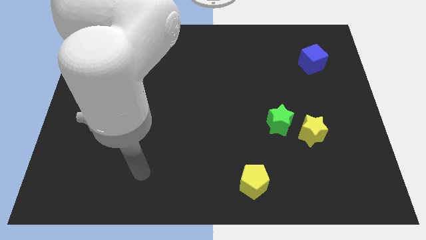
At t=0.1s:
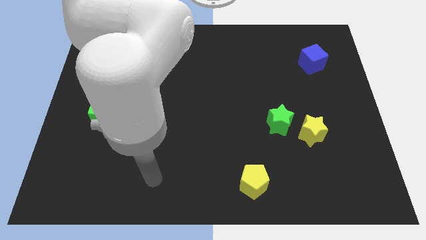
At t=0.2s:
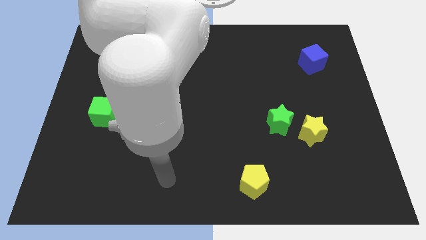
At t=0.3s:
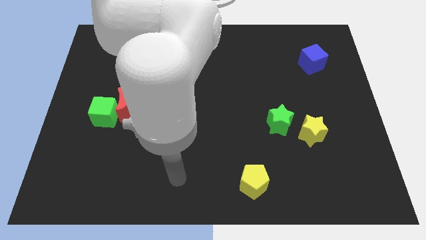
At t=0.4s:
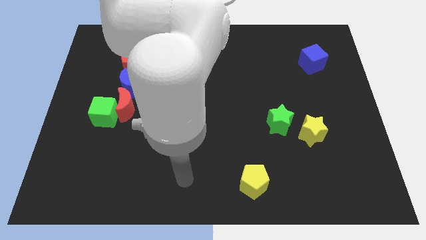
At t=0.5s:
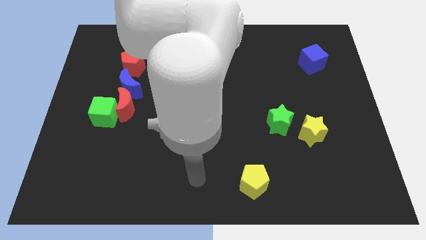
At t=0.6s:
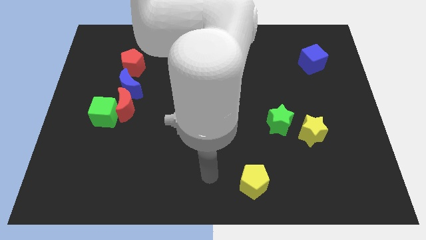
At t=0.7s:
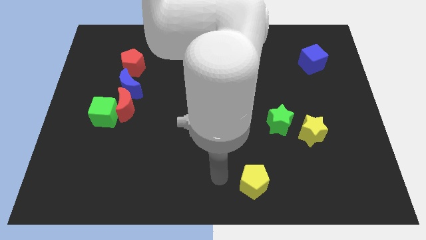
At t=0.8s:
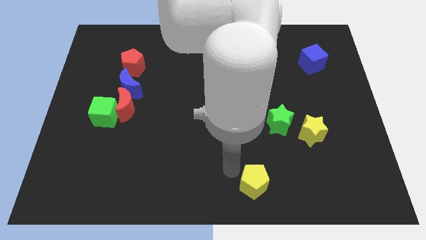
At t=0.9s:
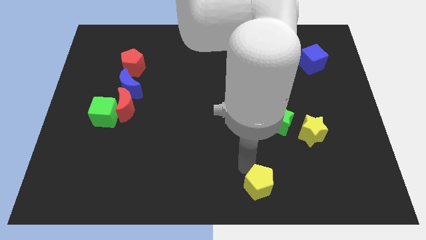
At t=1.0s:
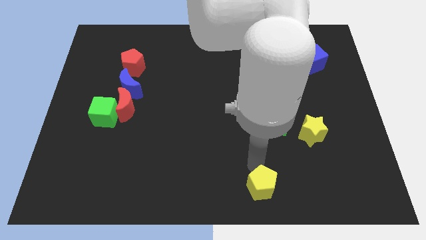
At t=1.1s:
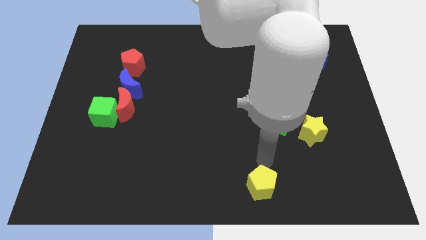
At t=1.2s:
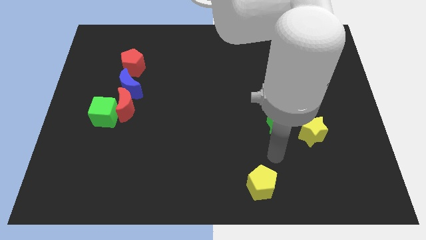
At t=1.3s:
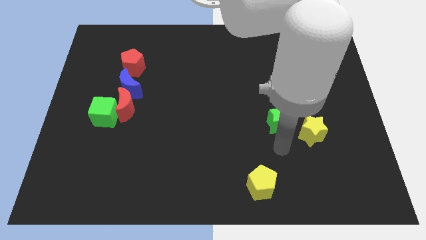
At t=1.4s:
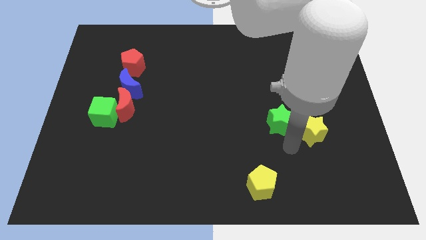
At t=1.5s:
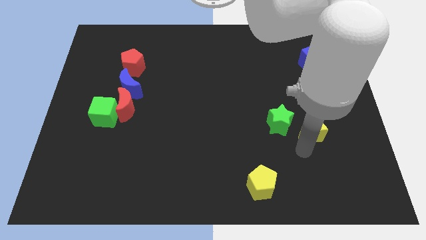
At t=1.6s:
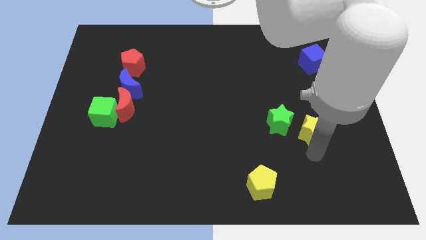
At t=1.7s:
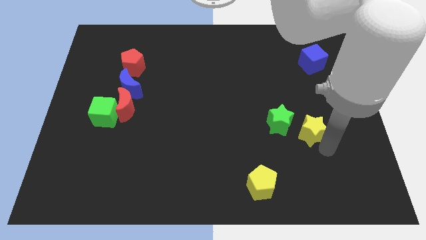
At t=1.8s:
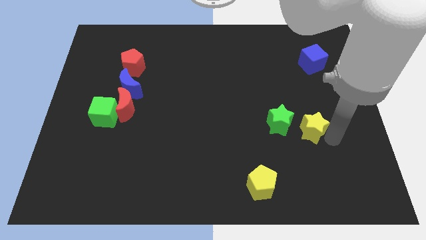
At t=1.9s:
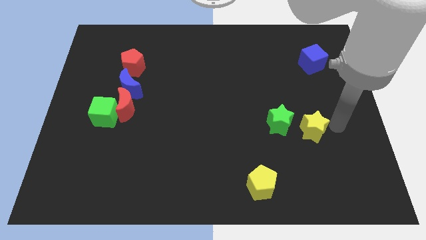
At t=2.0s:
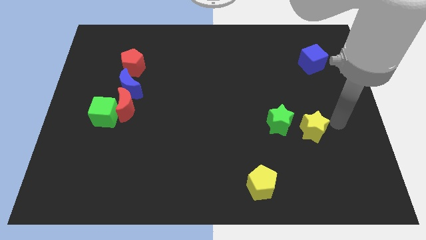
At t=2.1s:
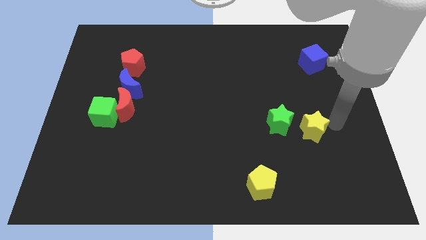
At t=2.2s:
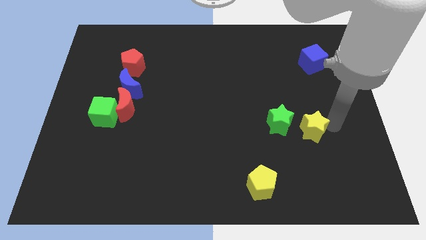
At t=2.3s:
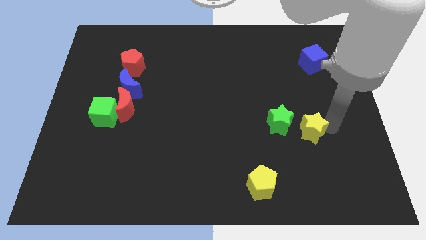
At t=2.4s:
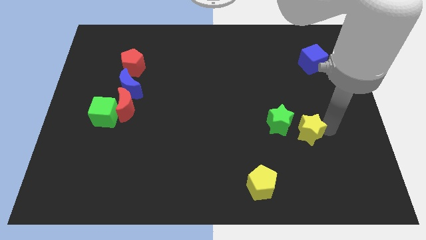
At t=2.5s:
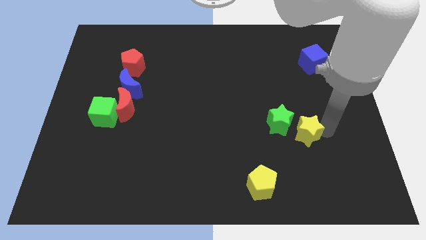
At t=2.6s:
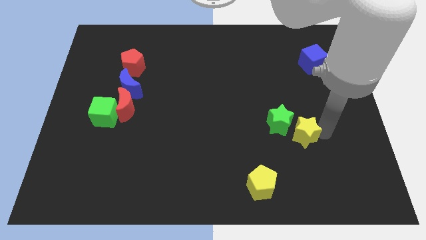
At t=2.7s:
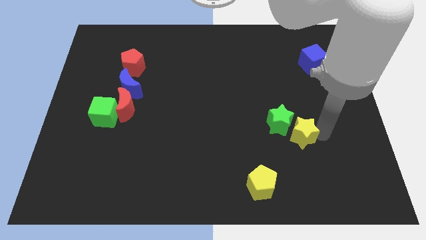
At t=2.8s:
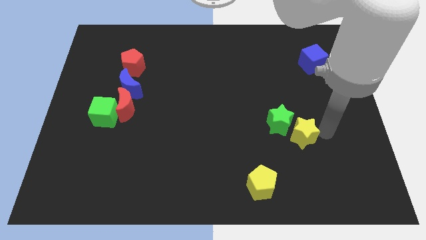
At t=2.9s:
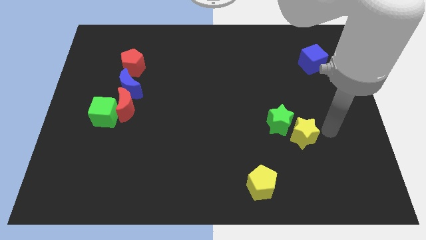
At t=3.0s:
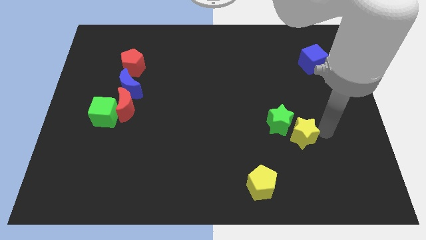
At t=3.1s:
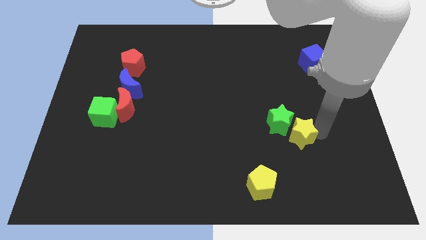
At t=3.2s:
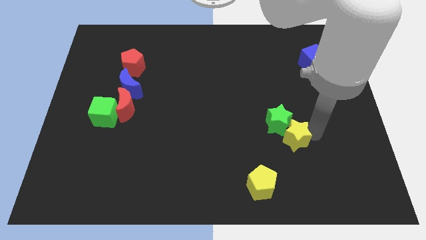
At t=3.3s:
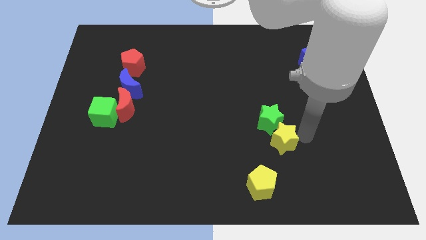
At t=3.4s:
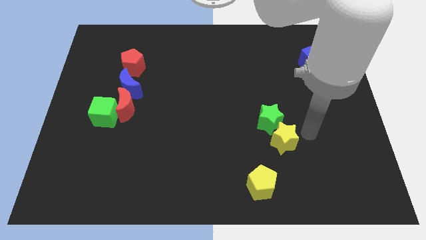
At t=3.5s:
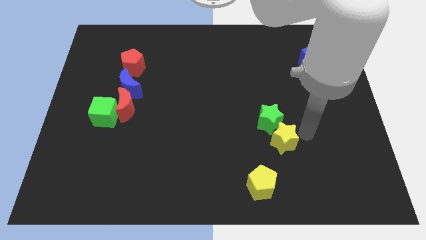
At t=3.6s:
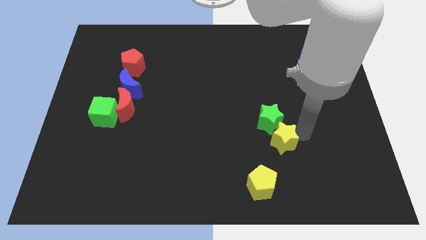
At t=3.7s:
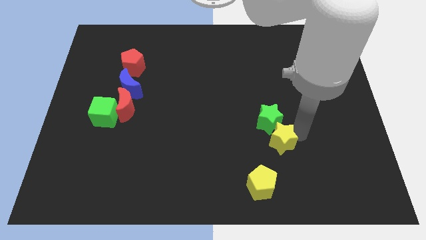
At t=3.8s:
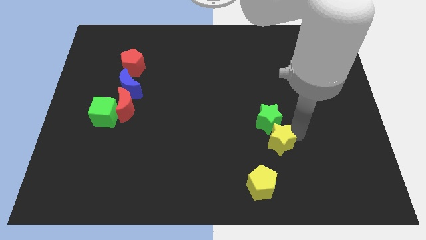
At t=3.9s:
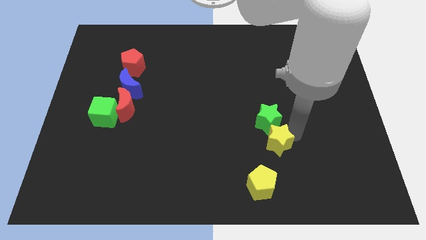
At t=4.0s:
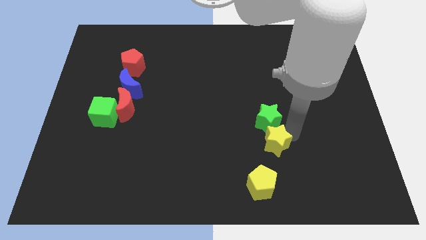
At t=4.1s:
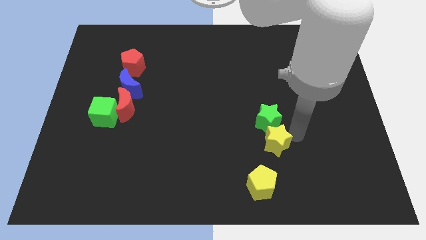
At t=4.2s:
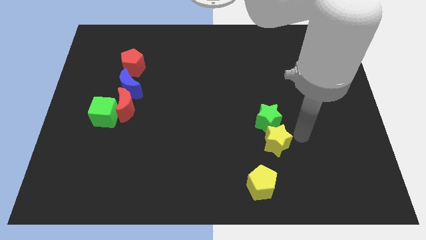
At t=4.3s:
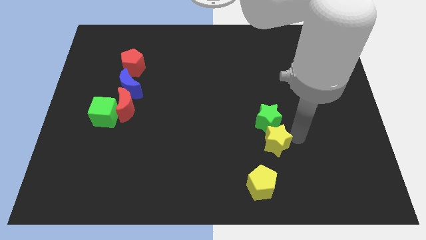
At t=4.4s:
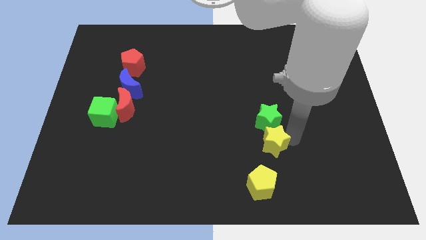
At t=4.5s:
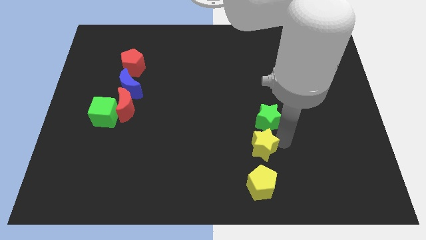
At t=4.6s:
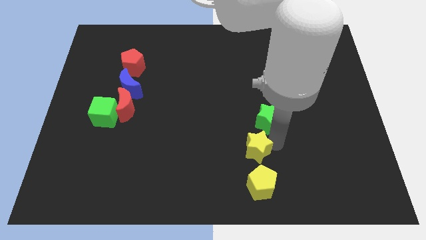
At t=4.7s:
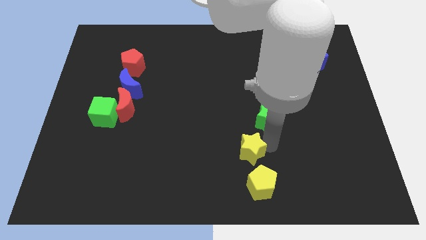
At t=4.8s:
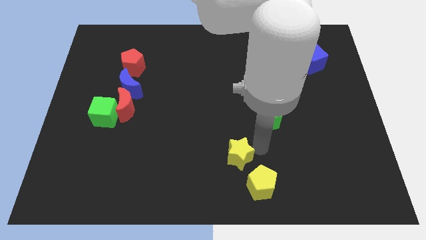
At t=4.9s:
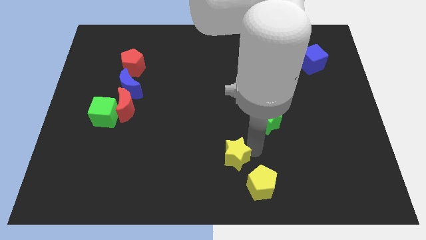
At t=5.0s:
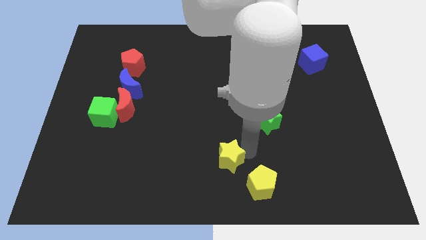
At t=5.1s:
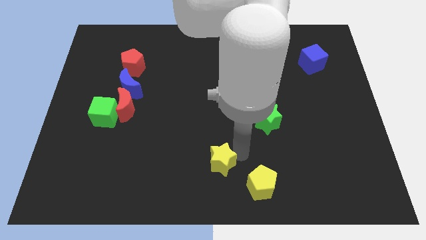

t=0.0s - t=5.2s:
move the yellow star to the left side of the yellow pentagon

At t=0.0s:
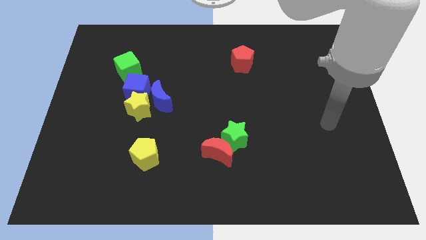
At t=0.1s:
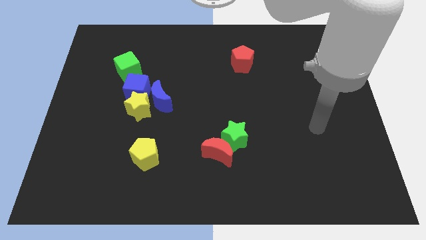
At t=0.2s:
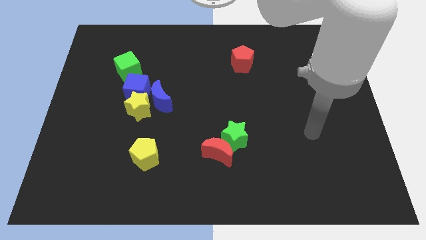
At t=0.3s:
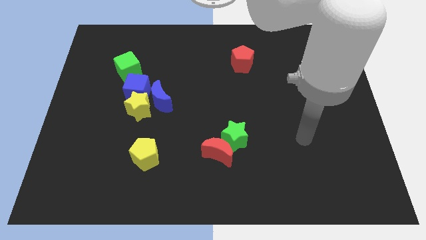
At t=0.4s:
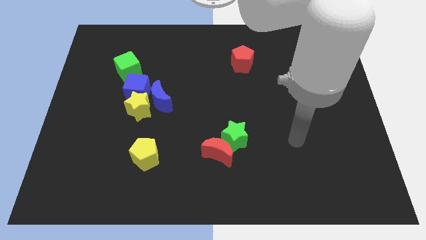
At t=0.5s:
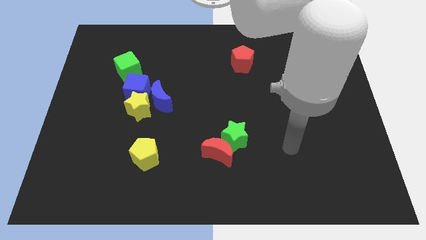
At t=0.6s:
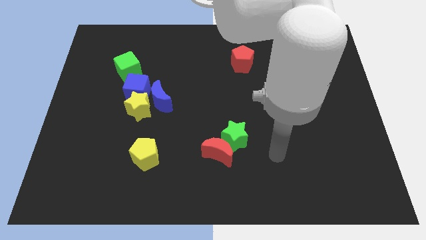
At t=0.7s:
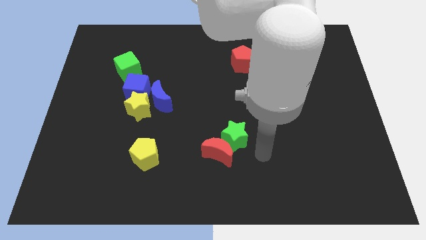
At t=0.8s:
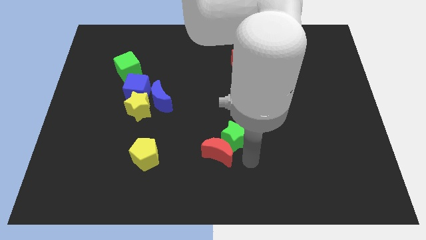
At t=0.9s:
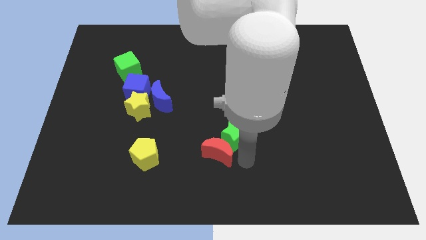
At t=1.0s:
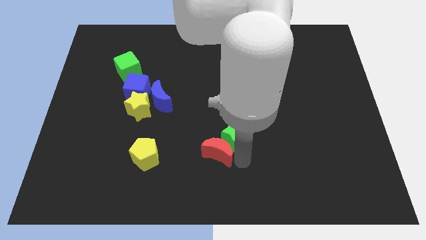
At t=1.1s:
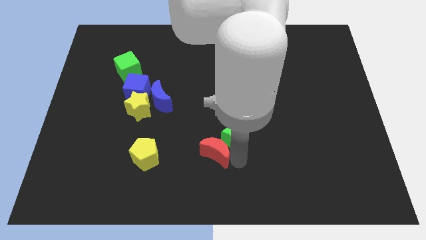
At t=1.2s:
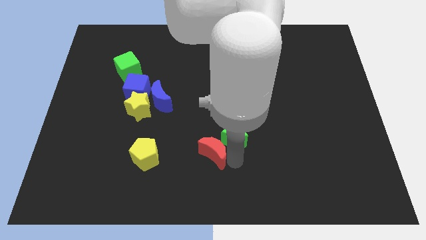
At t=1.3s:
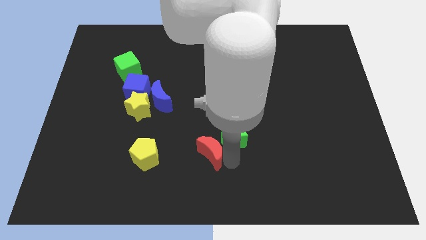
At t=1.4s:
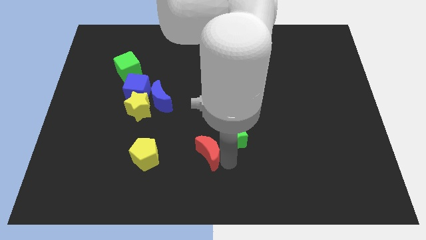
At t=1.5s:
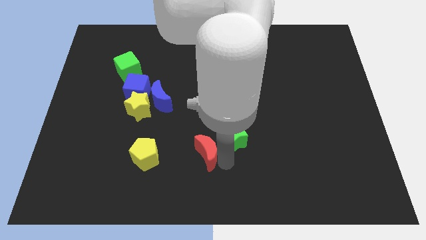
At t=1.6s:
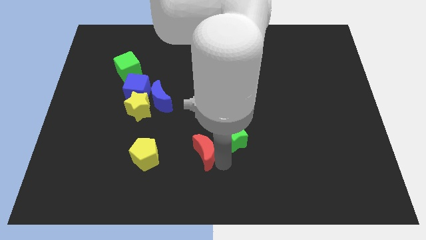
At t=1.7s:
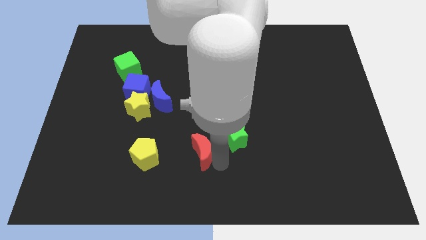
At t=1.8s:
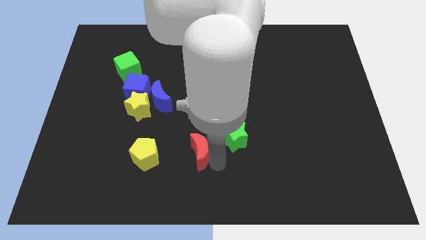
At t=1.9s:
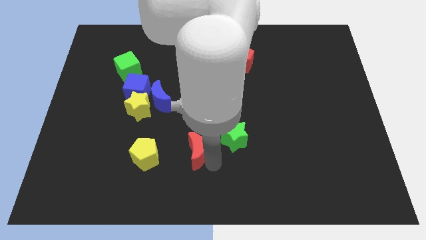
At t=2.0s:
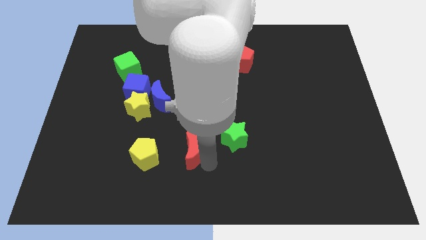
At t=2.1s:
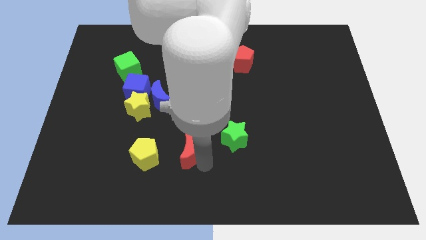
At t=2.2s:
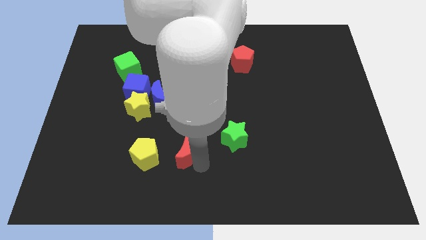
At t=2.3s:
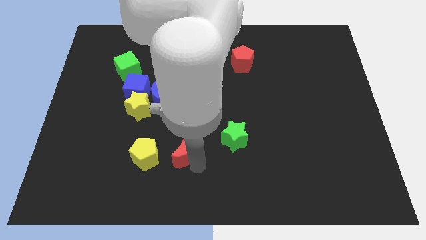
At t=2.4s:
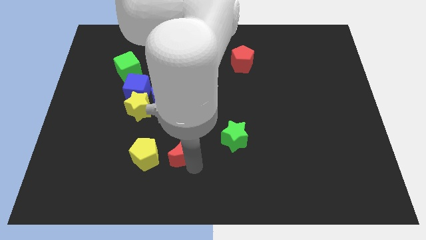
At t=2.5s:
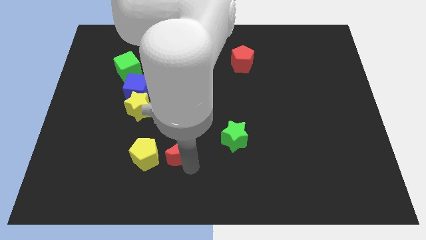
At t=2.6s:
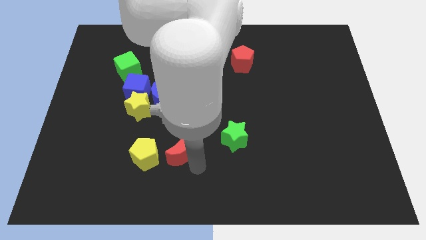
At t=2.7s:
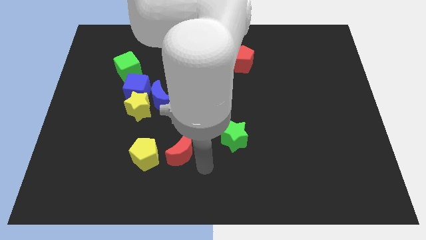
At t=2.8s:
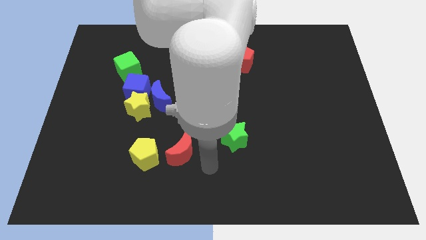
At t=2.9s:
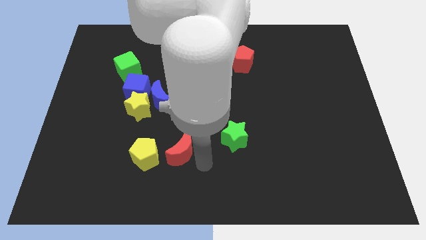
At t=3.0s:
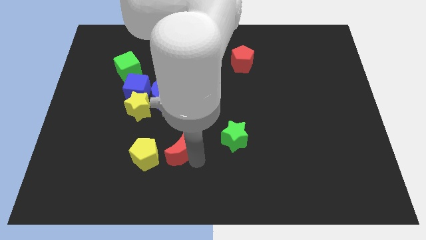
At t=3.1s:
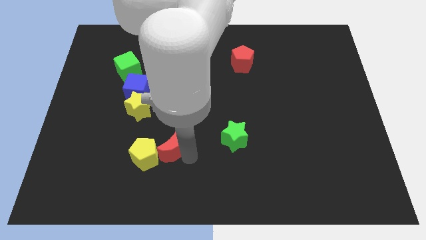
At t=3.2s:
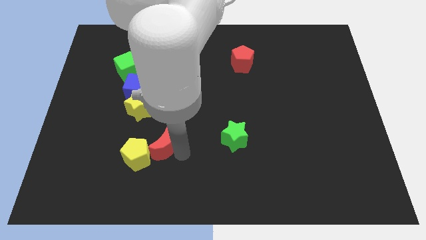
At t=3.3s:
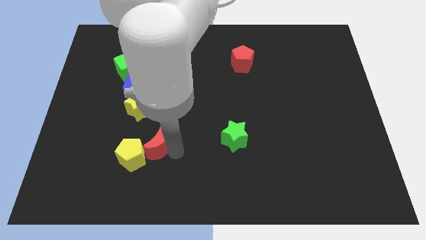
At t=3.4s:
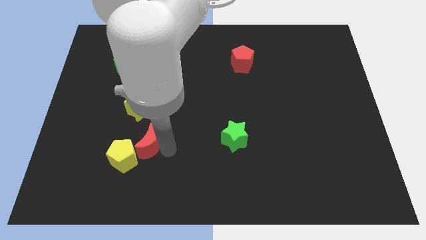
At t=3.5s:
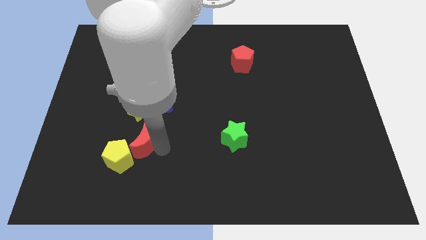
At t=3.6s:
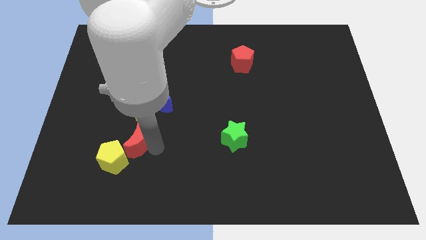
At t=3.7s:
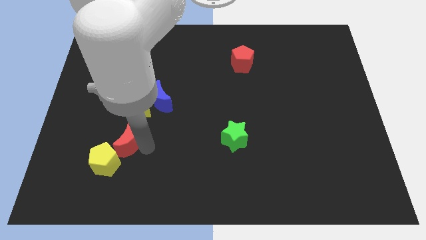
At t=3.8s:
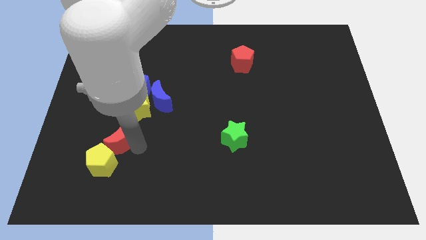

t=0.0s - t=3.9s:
slide the red moon to the bottom left of the yellow star
